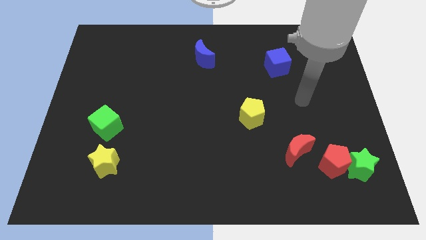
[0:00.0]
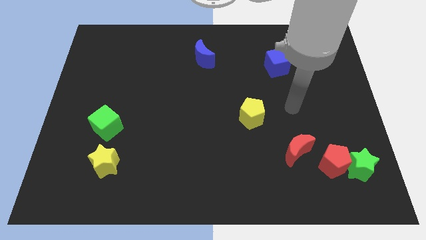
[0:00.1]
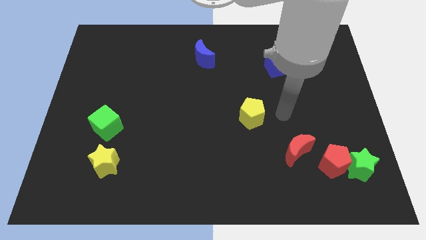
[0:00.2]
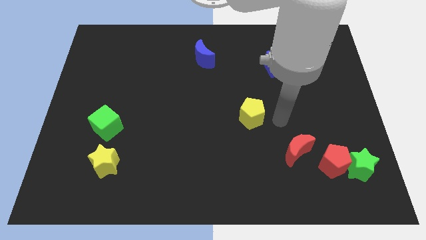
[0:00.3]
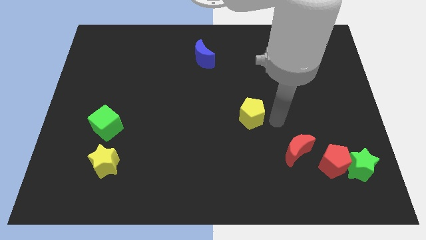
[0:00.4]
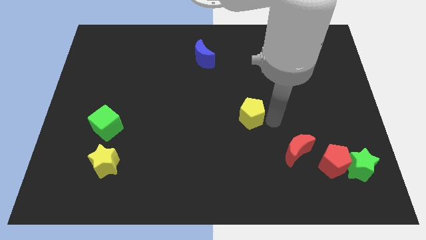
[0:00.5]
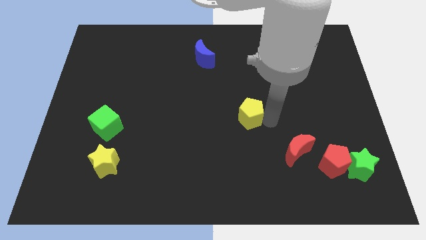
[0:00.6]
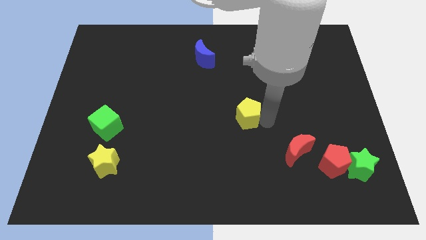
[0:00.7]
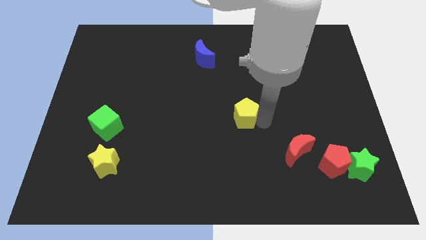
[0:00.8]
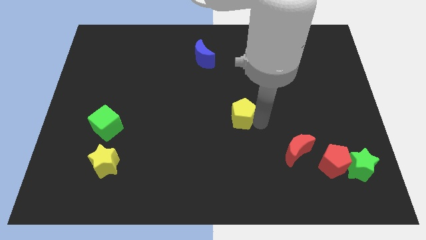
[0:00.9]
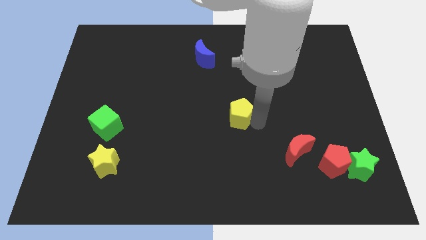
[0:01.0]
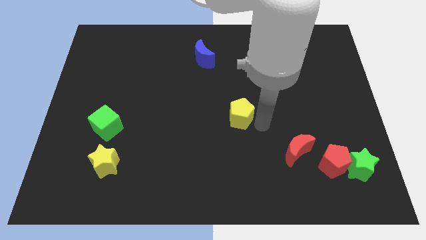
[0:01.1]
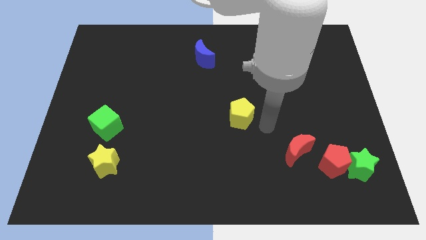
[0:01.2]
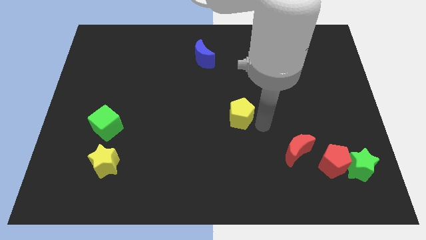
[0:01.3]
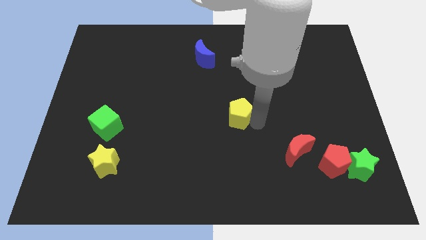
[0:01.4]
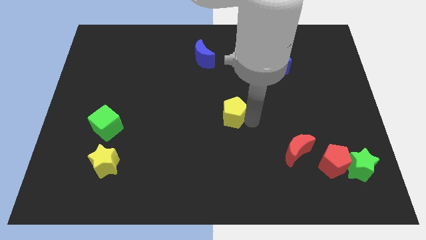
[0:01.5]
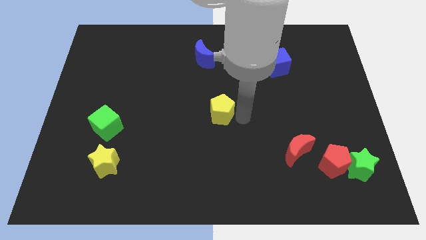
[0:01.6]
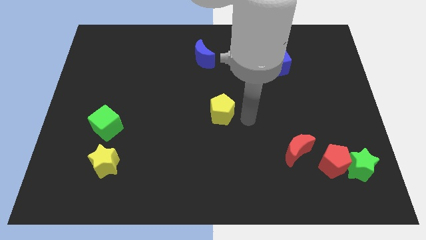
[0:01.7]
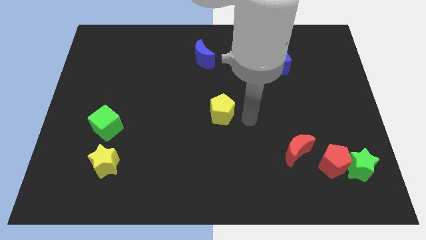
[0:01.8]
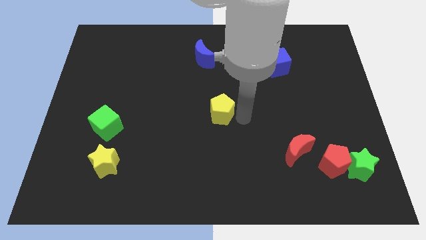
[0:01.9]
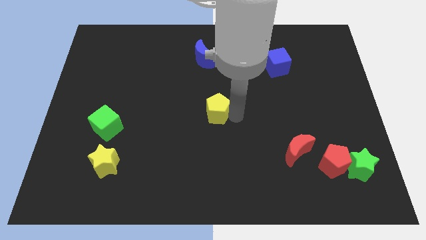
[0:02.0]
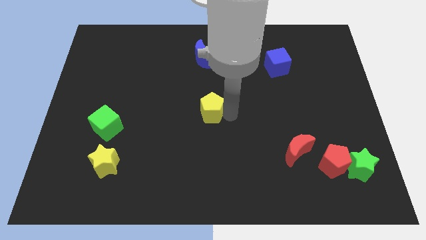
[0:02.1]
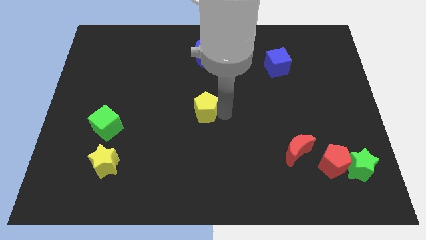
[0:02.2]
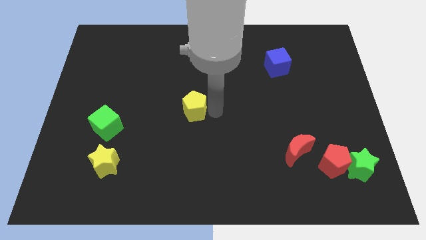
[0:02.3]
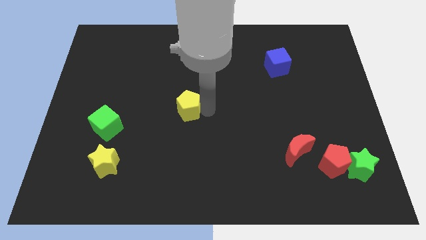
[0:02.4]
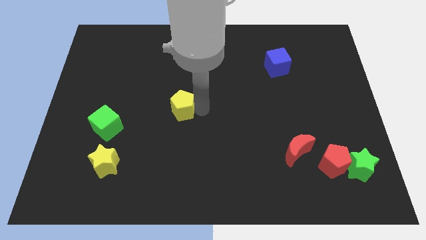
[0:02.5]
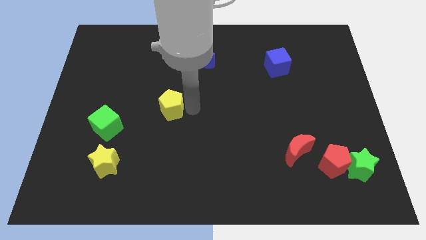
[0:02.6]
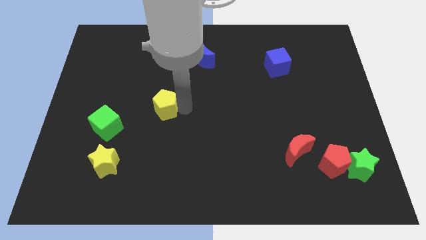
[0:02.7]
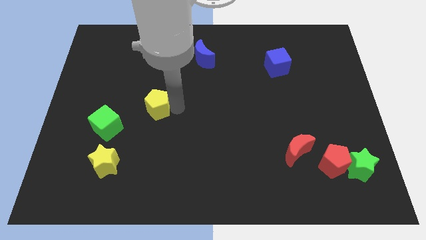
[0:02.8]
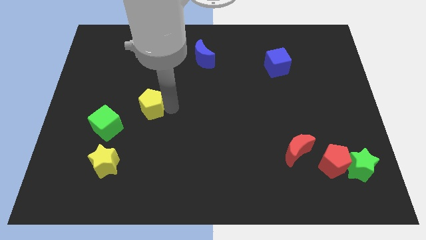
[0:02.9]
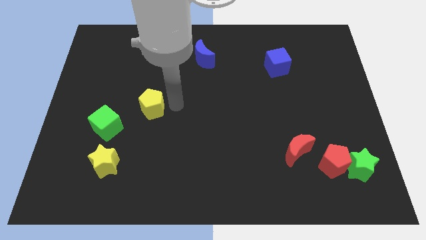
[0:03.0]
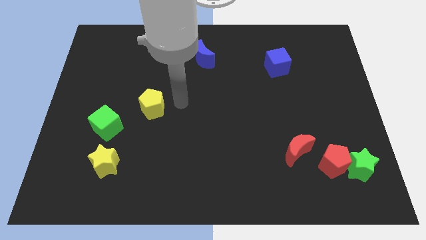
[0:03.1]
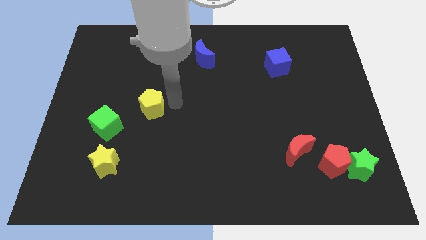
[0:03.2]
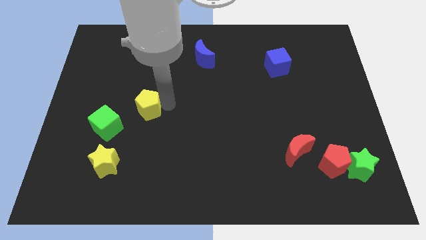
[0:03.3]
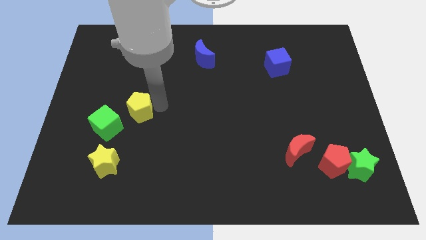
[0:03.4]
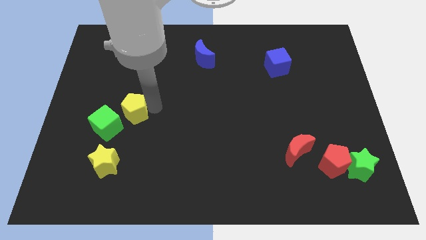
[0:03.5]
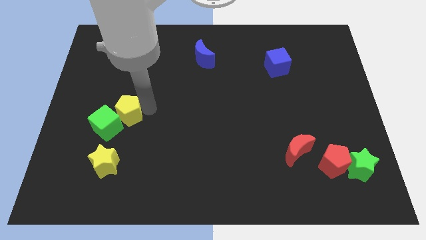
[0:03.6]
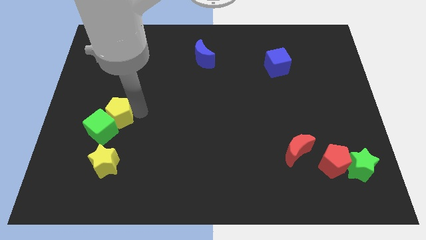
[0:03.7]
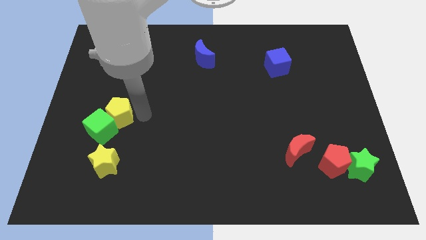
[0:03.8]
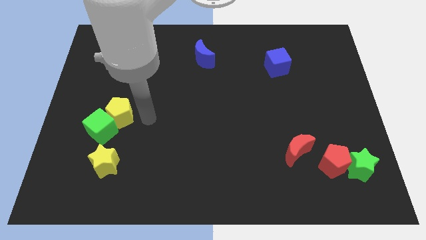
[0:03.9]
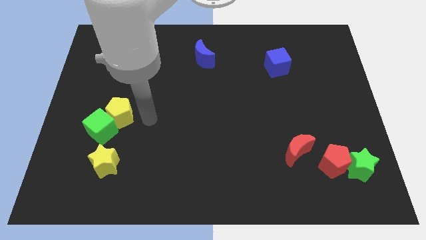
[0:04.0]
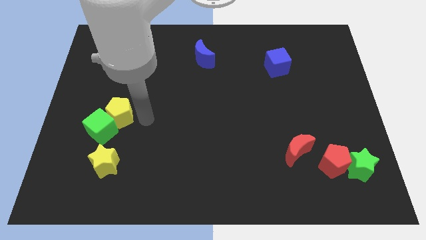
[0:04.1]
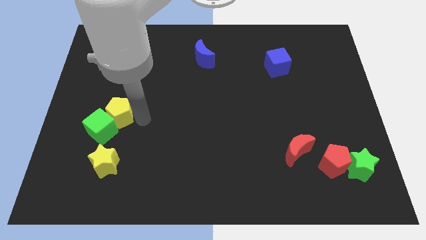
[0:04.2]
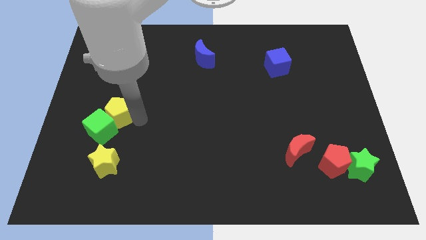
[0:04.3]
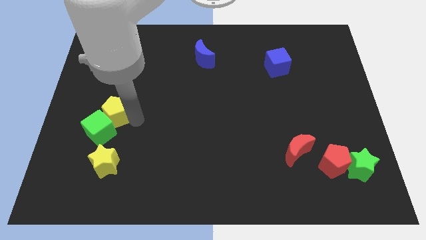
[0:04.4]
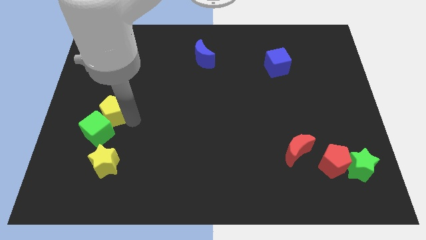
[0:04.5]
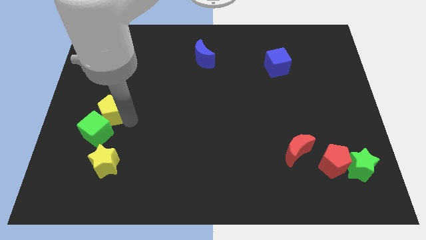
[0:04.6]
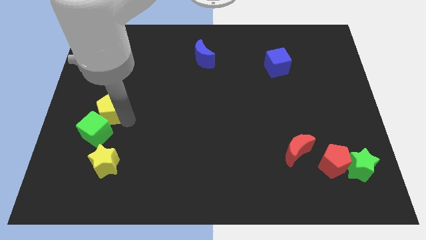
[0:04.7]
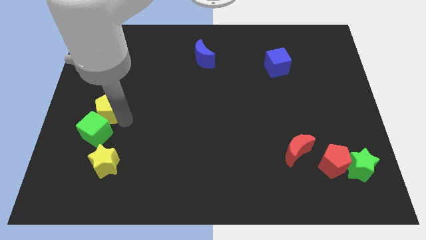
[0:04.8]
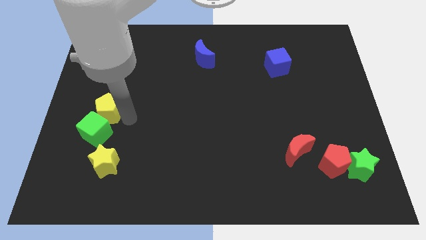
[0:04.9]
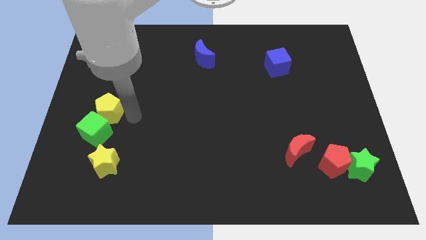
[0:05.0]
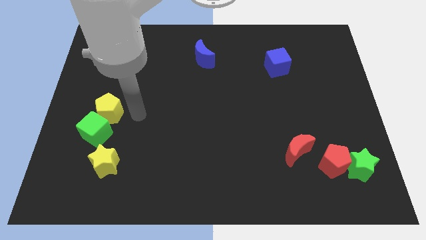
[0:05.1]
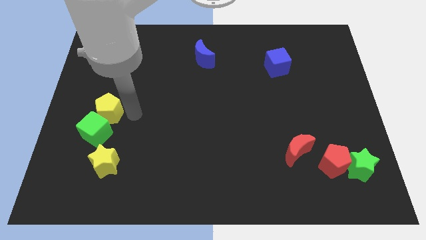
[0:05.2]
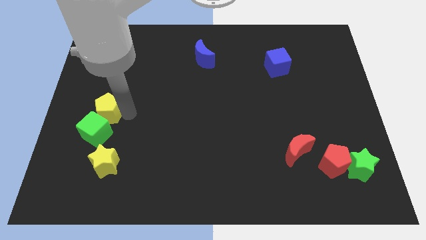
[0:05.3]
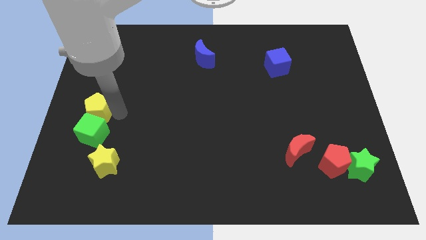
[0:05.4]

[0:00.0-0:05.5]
slide the yellow pentagon to the left side of the board
